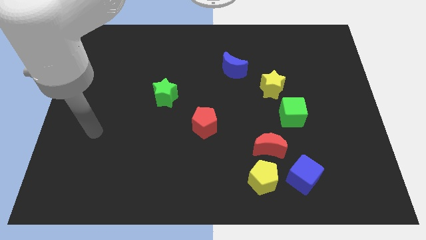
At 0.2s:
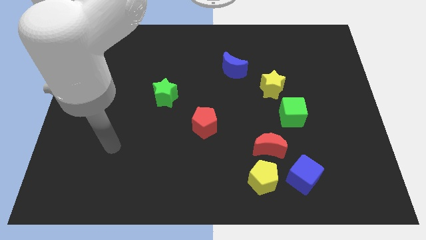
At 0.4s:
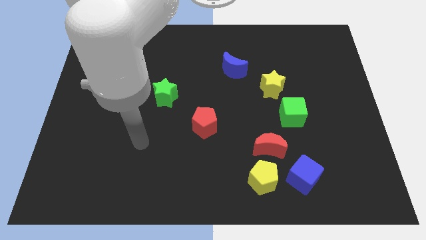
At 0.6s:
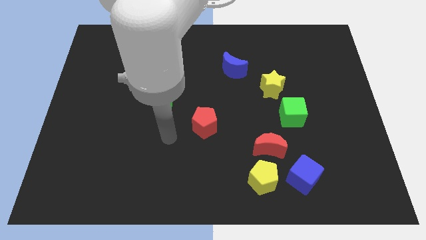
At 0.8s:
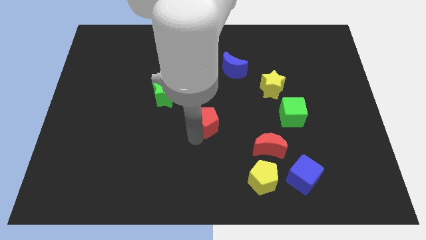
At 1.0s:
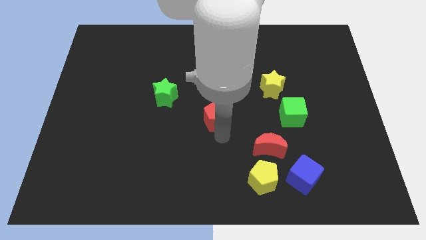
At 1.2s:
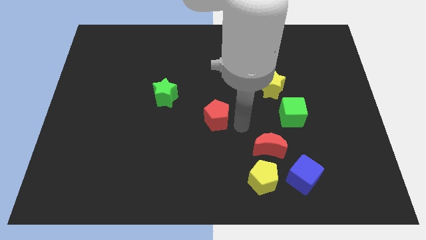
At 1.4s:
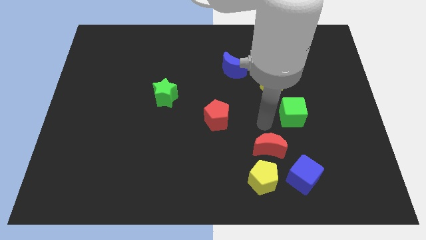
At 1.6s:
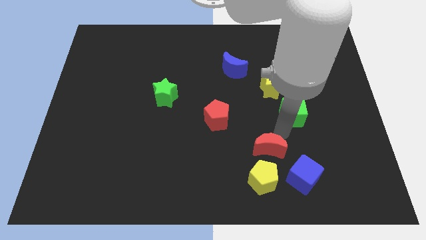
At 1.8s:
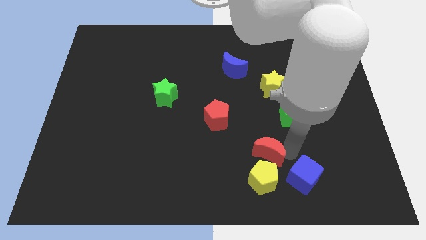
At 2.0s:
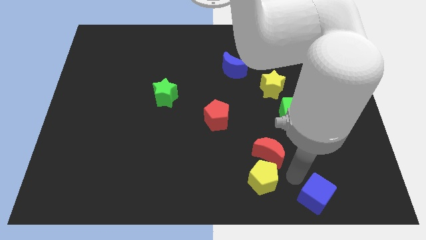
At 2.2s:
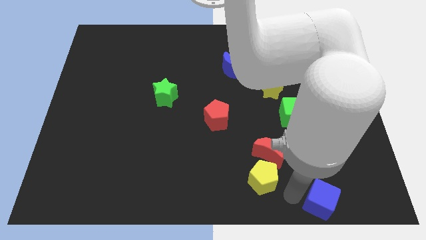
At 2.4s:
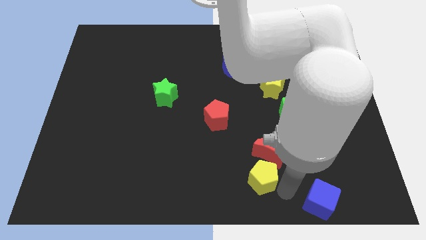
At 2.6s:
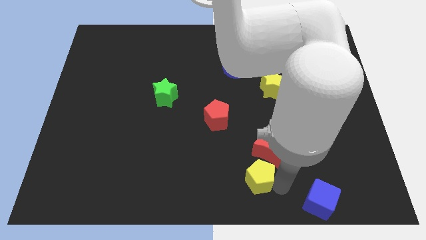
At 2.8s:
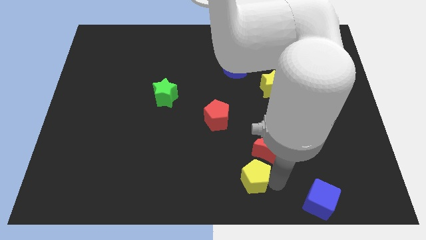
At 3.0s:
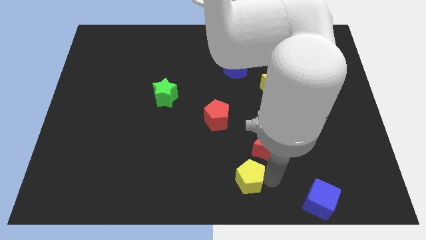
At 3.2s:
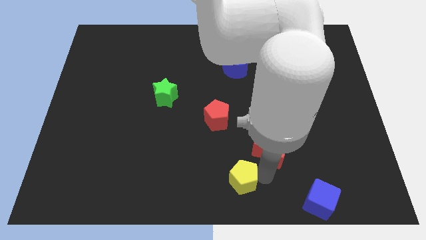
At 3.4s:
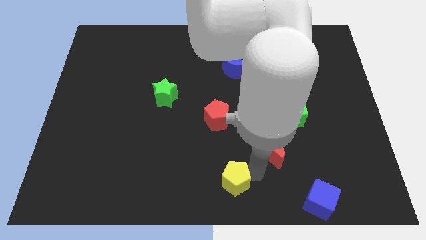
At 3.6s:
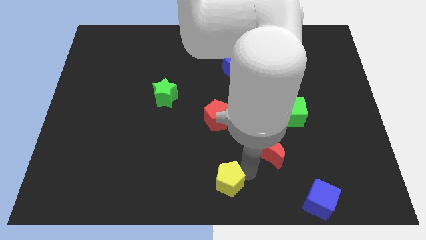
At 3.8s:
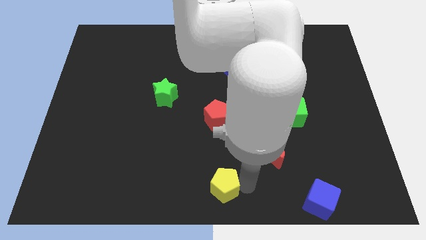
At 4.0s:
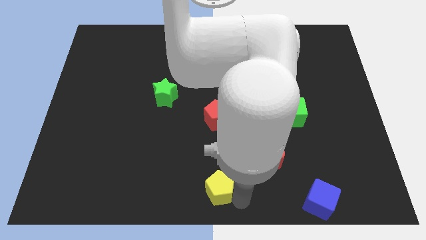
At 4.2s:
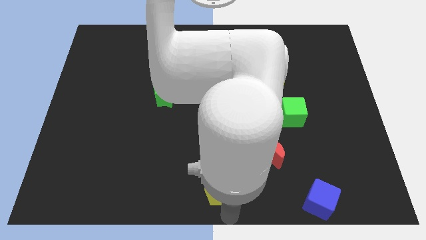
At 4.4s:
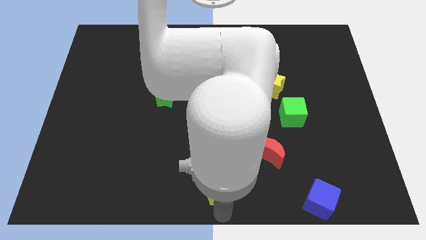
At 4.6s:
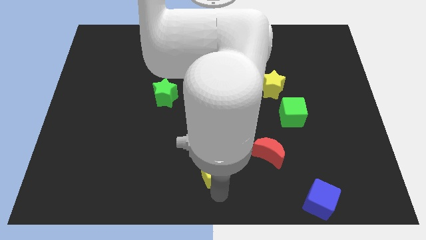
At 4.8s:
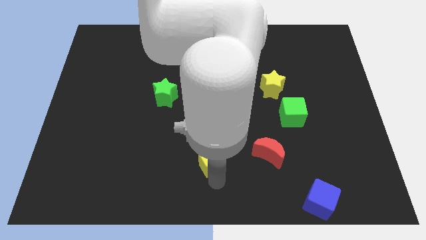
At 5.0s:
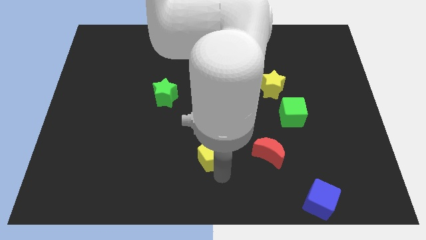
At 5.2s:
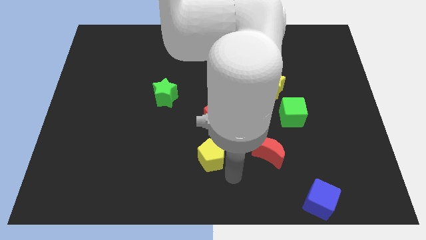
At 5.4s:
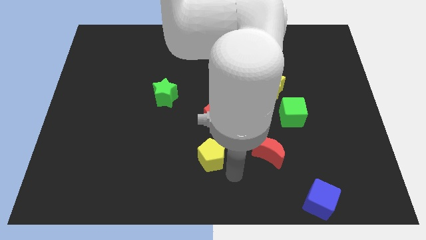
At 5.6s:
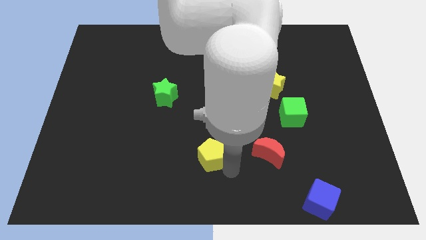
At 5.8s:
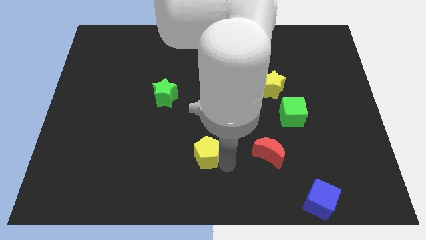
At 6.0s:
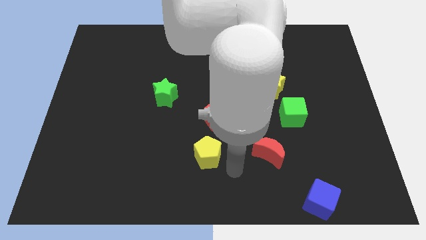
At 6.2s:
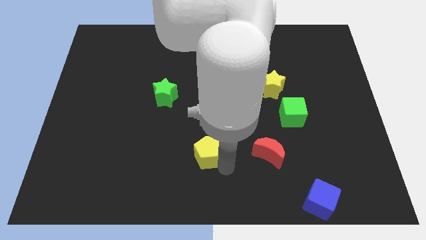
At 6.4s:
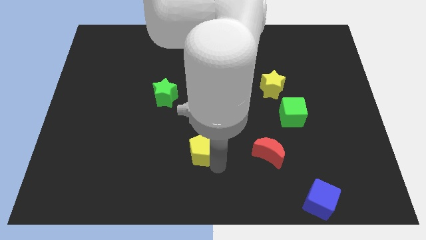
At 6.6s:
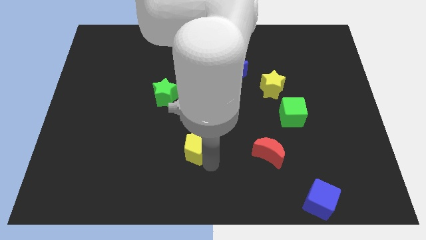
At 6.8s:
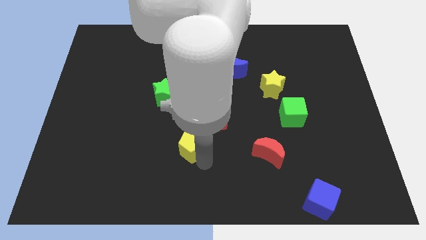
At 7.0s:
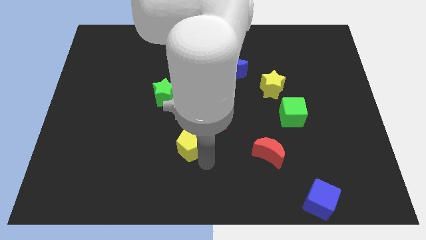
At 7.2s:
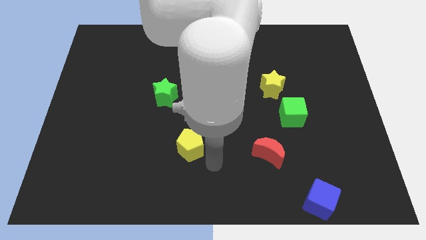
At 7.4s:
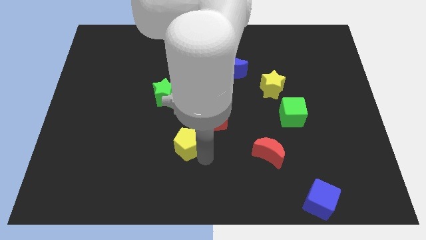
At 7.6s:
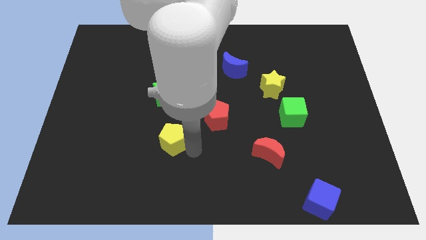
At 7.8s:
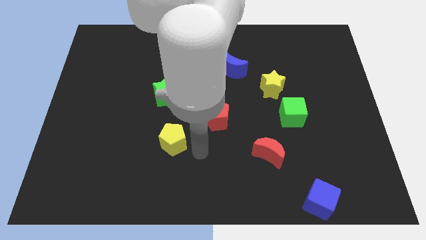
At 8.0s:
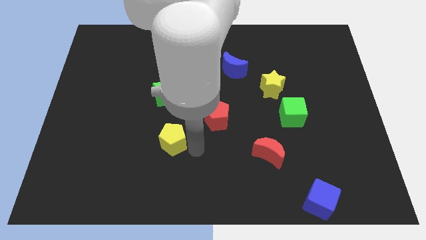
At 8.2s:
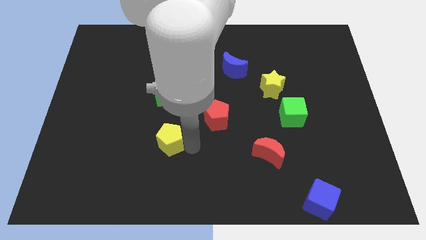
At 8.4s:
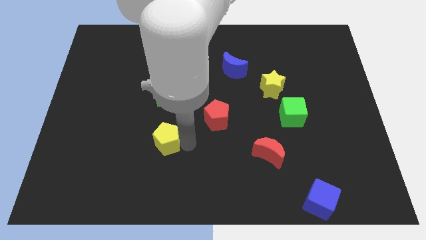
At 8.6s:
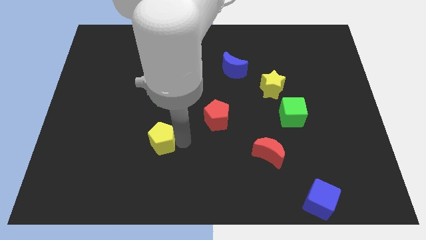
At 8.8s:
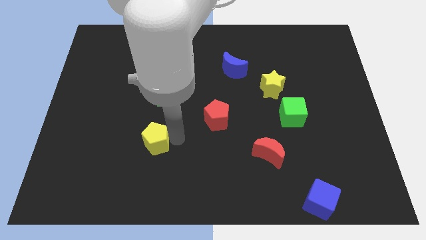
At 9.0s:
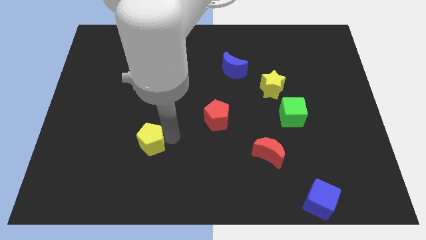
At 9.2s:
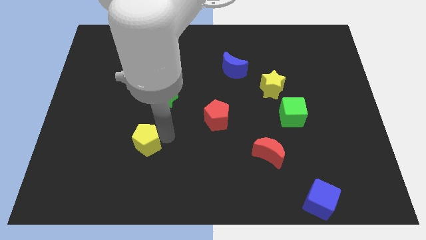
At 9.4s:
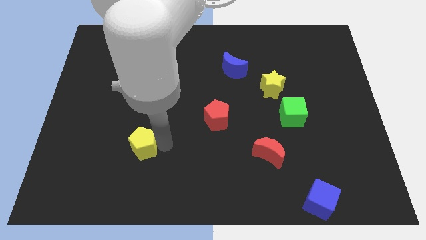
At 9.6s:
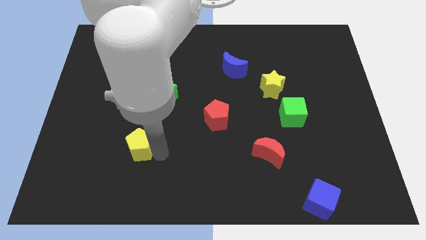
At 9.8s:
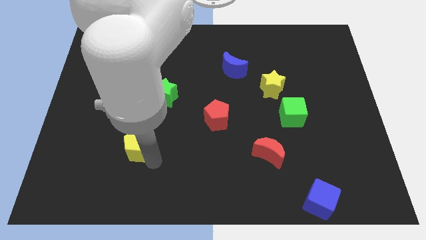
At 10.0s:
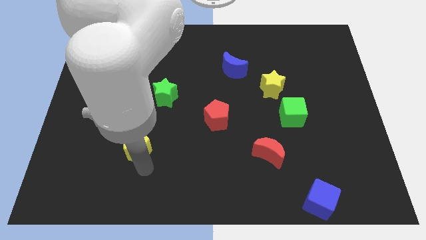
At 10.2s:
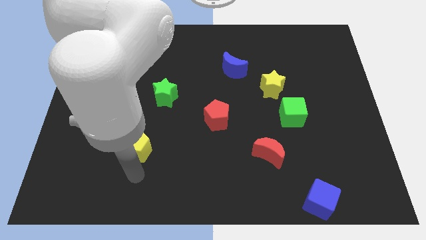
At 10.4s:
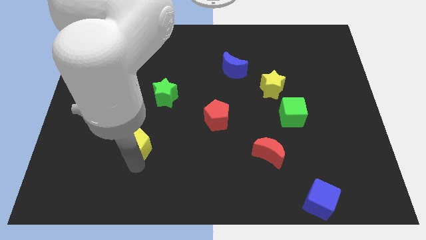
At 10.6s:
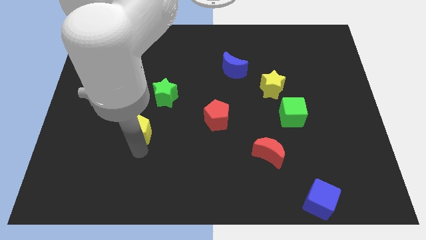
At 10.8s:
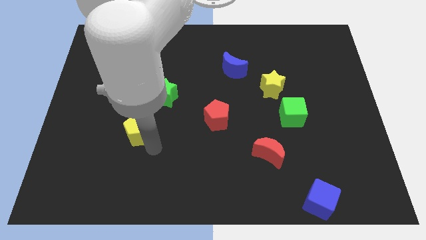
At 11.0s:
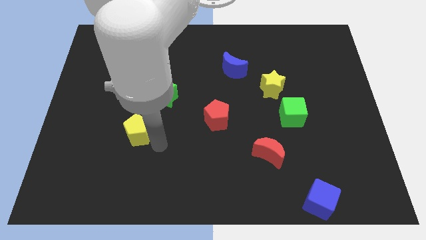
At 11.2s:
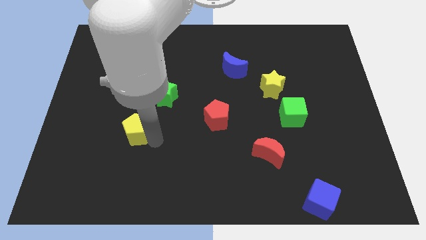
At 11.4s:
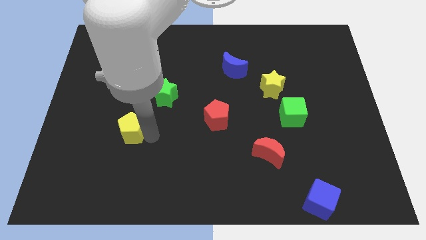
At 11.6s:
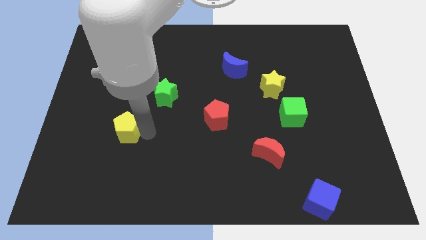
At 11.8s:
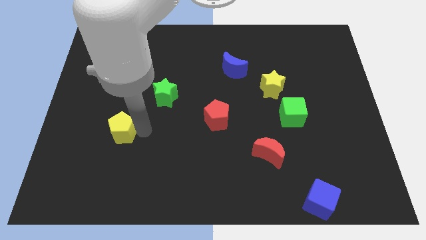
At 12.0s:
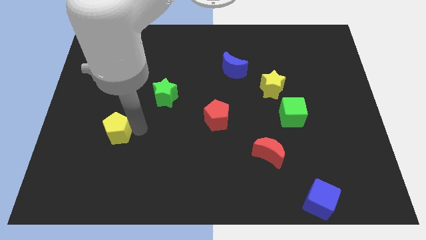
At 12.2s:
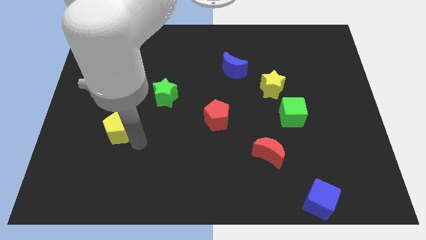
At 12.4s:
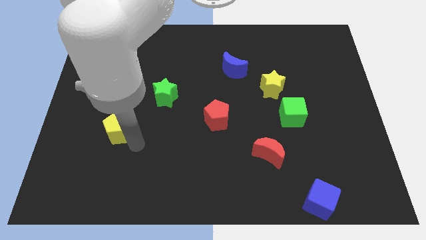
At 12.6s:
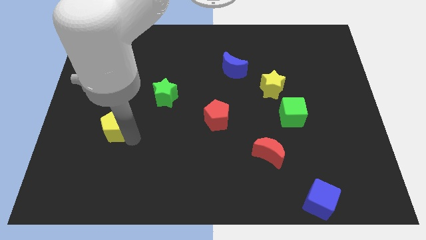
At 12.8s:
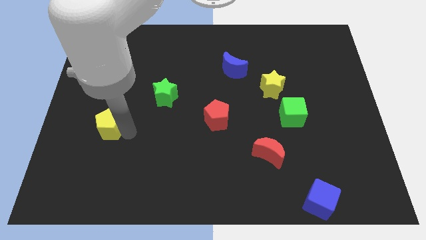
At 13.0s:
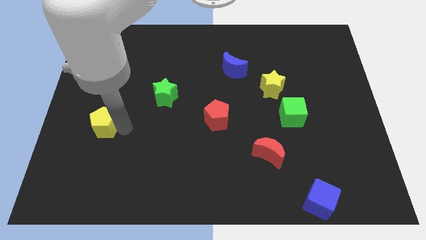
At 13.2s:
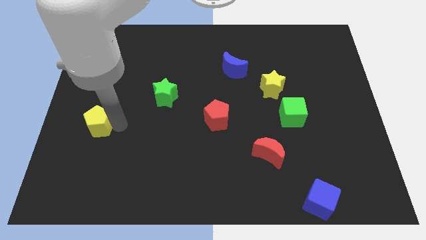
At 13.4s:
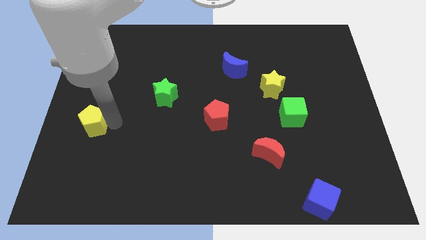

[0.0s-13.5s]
put the yellow pentagon to the left side of the board

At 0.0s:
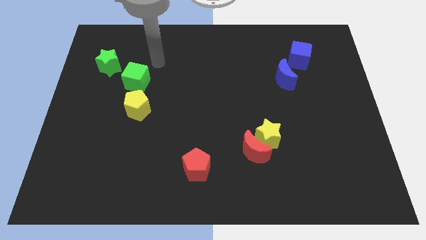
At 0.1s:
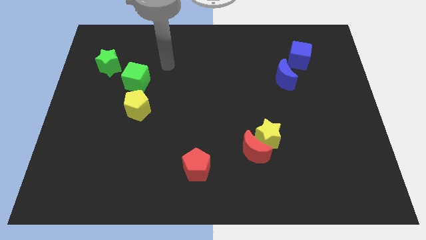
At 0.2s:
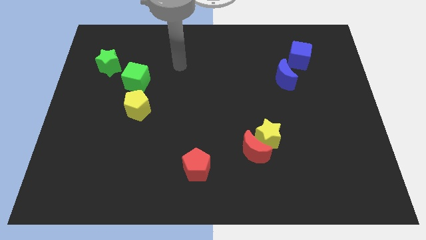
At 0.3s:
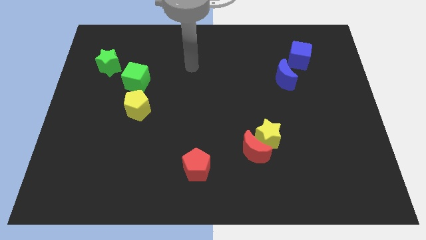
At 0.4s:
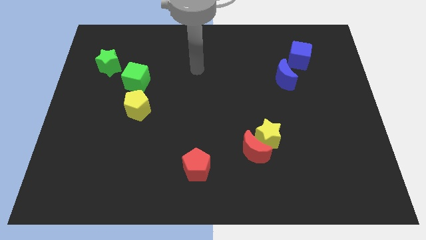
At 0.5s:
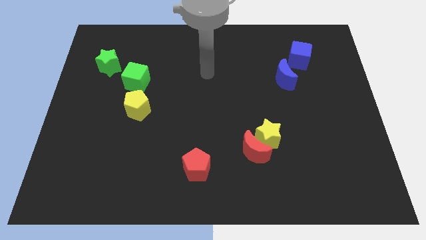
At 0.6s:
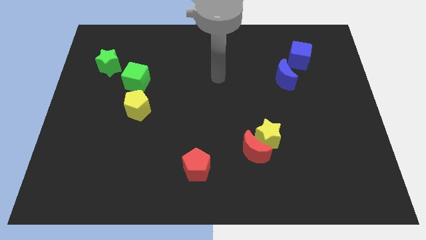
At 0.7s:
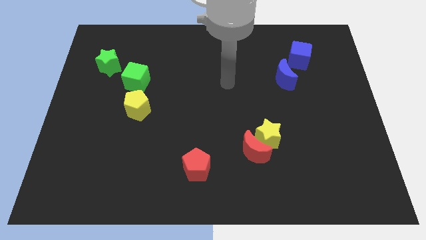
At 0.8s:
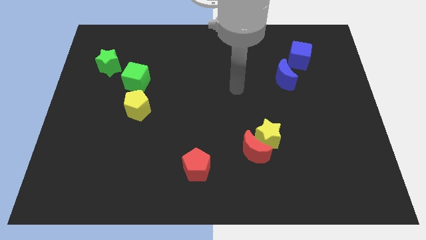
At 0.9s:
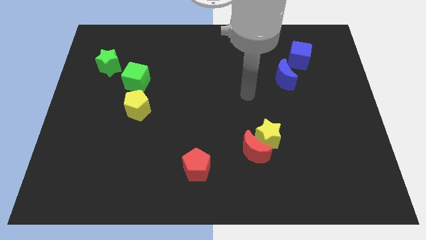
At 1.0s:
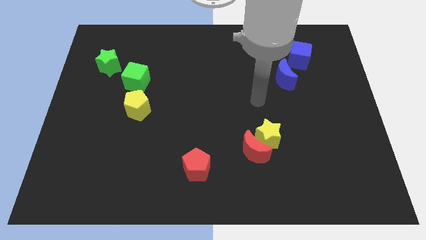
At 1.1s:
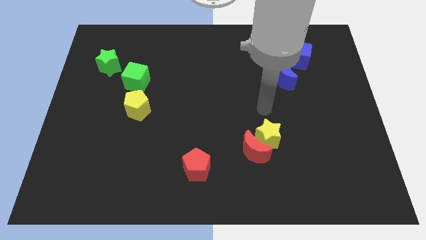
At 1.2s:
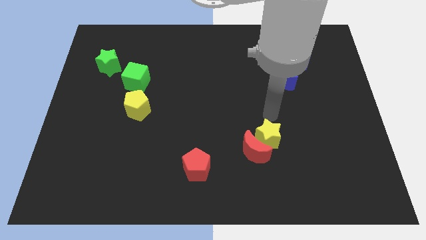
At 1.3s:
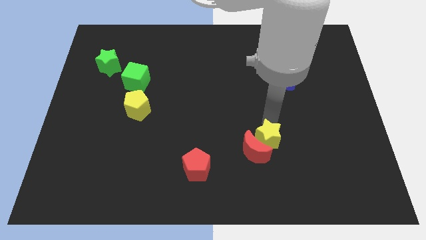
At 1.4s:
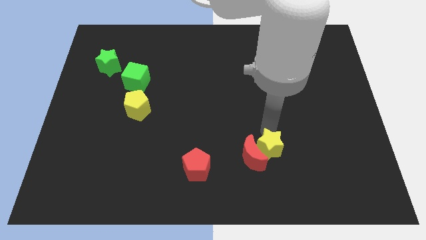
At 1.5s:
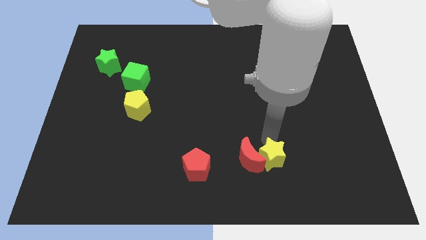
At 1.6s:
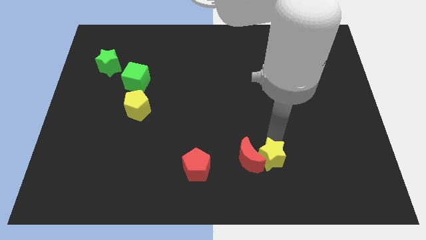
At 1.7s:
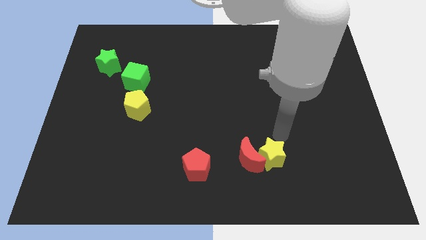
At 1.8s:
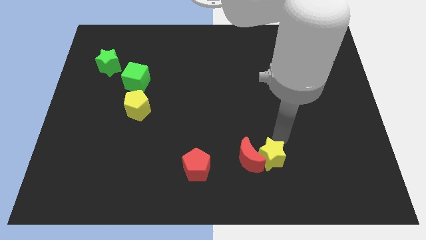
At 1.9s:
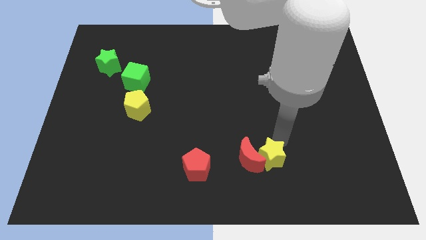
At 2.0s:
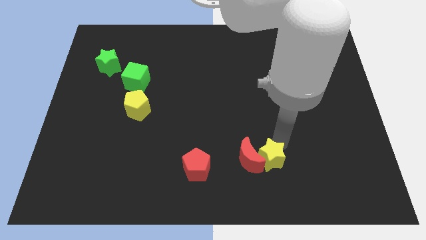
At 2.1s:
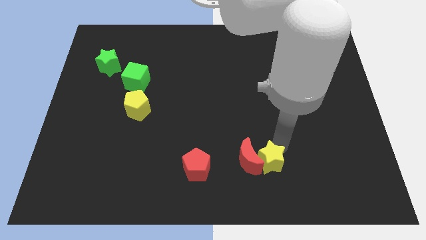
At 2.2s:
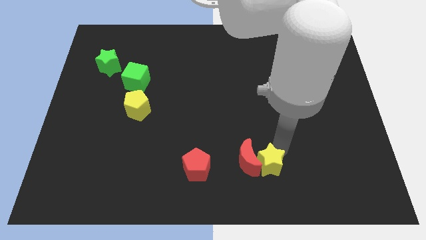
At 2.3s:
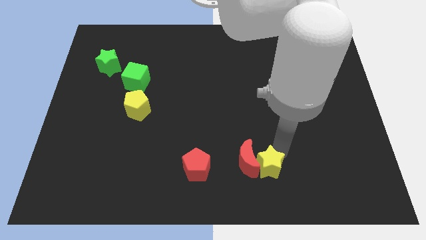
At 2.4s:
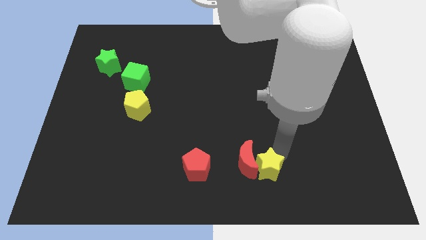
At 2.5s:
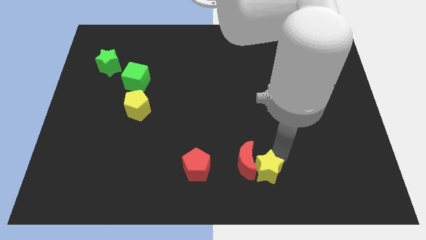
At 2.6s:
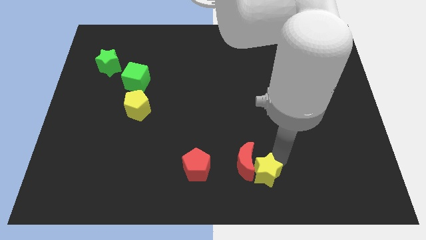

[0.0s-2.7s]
push the yellow star to the bottom
